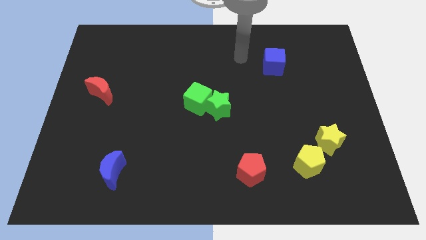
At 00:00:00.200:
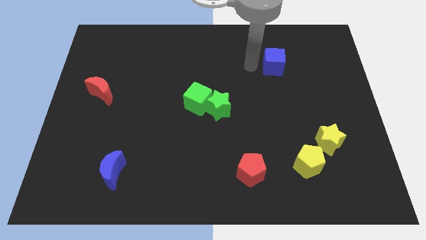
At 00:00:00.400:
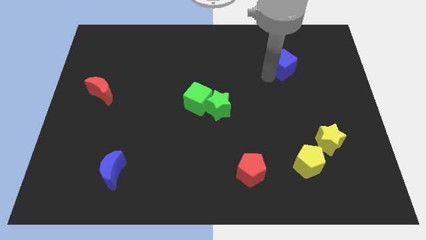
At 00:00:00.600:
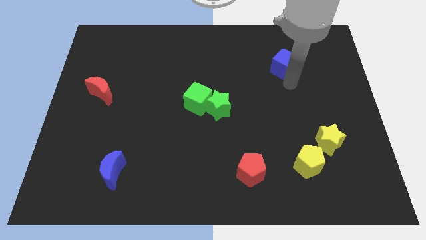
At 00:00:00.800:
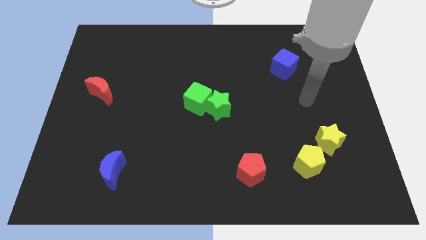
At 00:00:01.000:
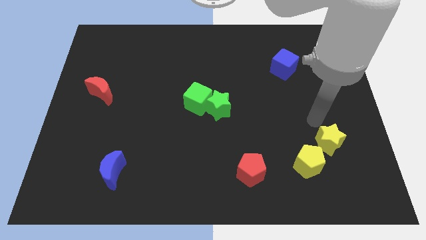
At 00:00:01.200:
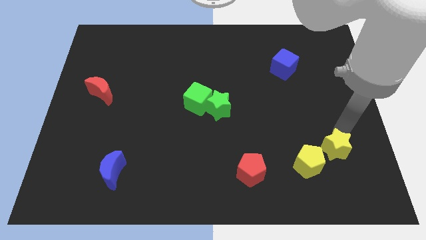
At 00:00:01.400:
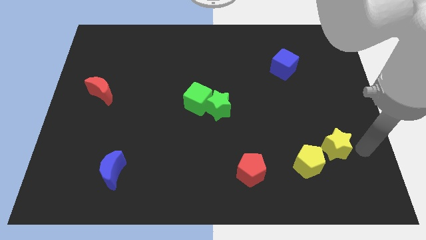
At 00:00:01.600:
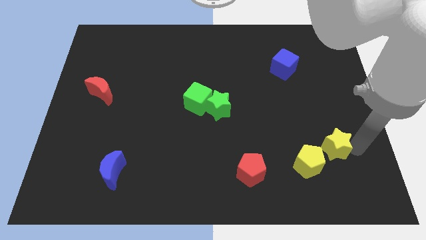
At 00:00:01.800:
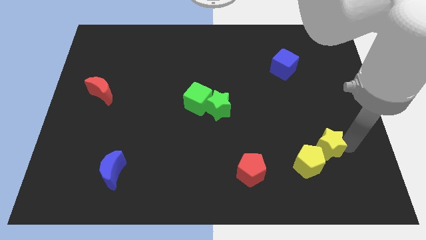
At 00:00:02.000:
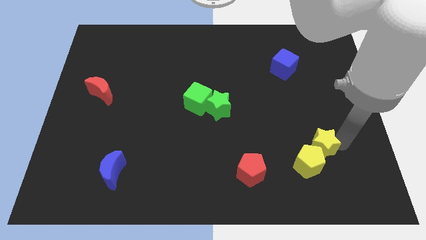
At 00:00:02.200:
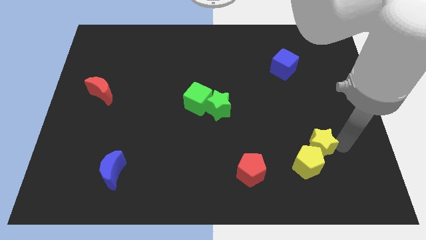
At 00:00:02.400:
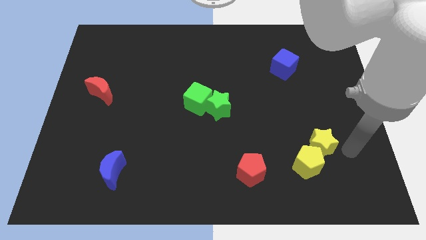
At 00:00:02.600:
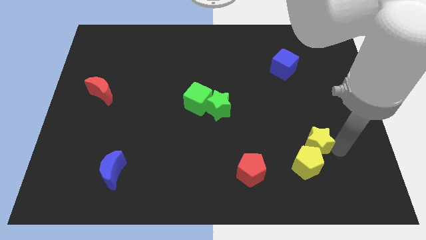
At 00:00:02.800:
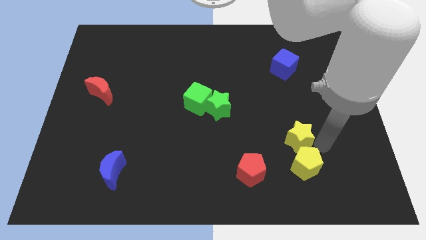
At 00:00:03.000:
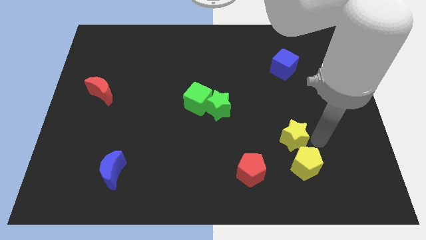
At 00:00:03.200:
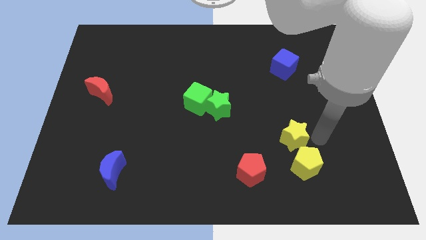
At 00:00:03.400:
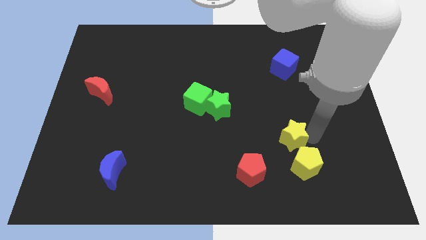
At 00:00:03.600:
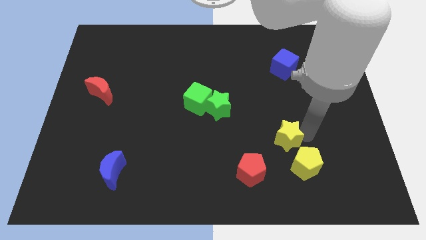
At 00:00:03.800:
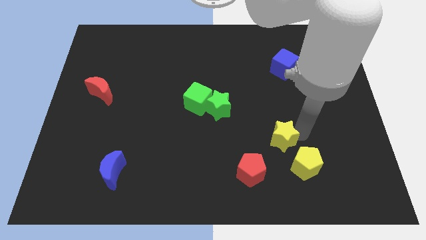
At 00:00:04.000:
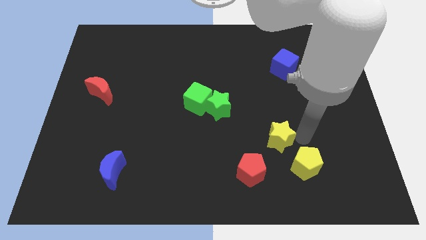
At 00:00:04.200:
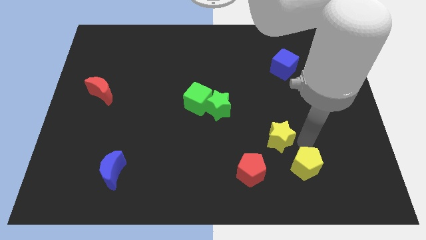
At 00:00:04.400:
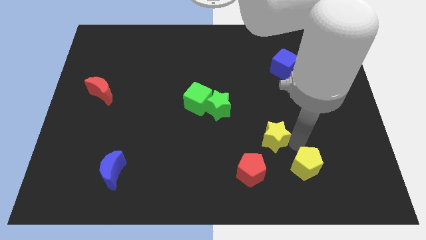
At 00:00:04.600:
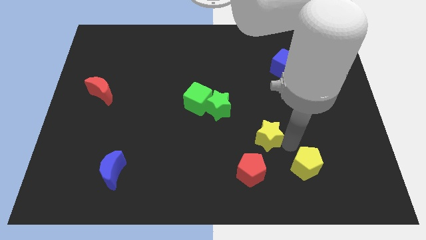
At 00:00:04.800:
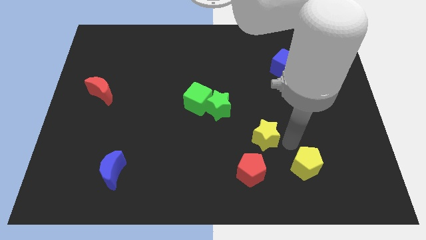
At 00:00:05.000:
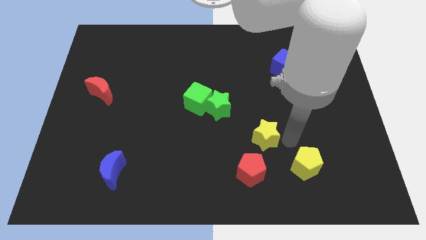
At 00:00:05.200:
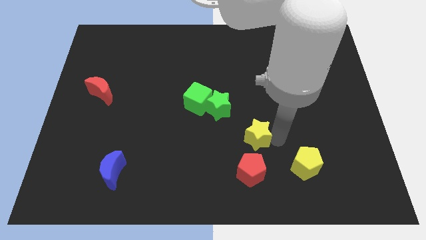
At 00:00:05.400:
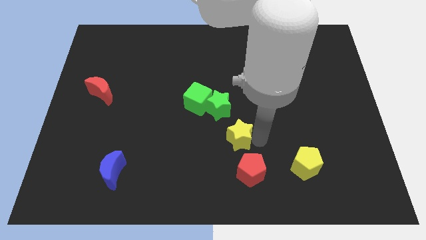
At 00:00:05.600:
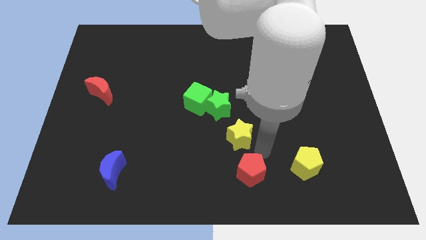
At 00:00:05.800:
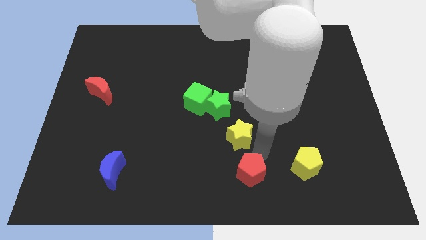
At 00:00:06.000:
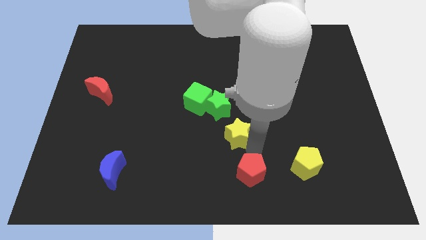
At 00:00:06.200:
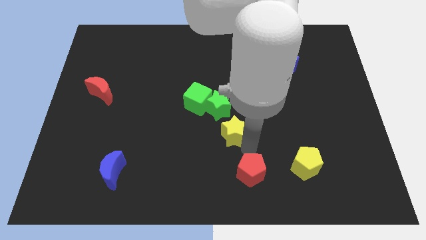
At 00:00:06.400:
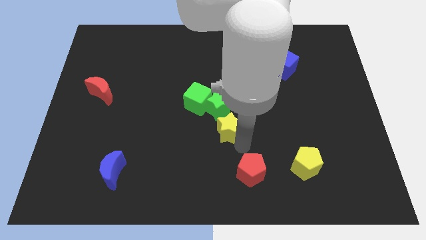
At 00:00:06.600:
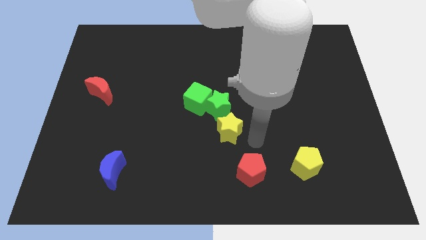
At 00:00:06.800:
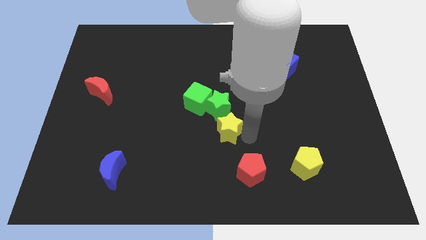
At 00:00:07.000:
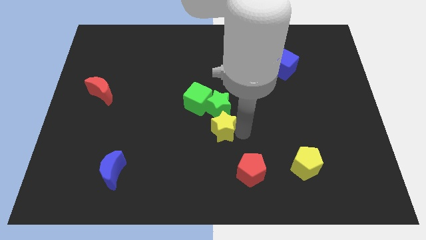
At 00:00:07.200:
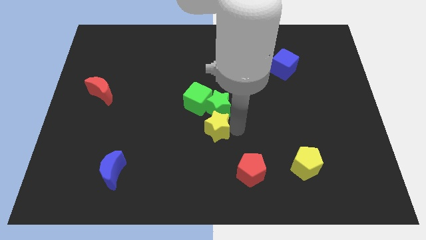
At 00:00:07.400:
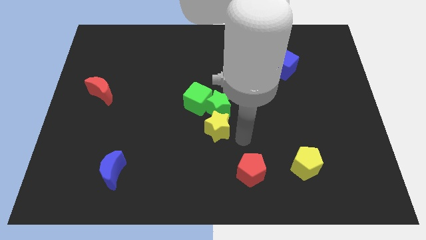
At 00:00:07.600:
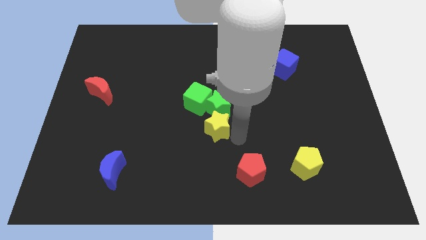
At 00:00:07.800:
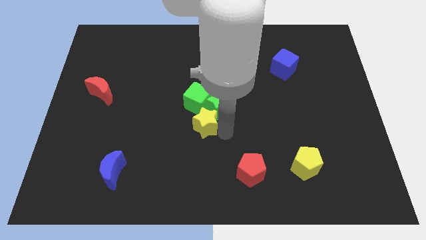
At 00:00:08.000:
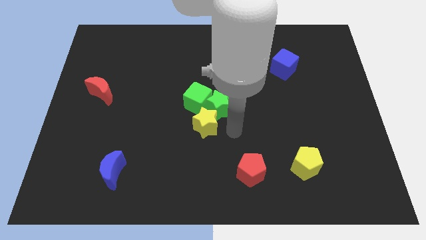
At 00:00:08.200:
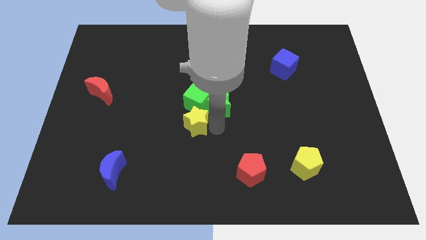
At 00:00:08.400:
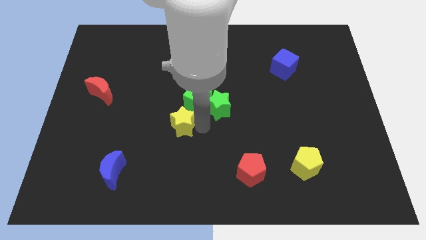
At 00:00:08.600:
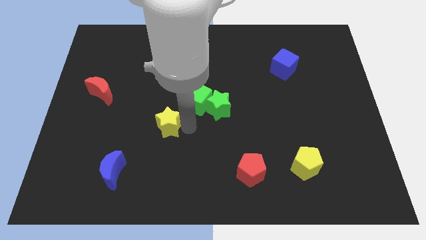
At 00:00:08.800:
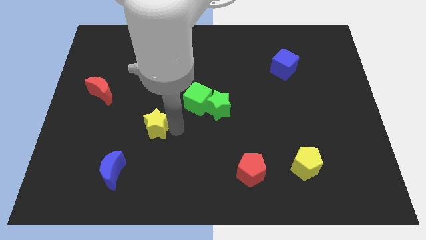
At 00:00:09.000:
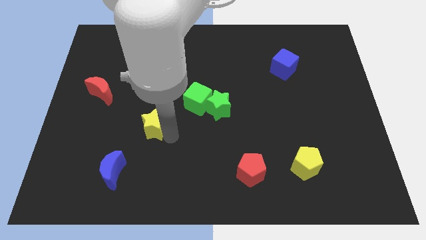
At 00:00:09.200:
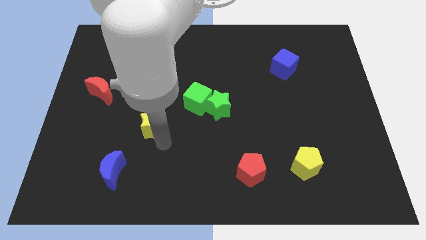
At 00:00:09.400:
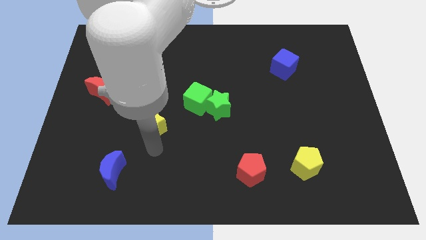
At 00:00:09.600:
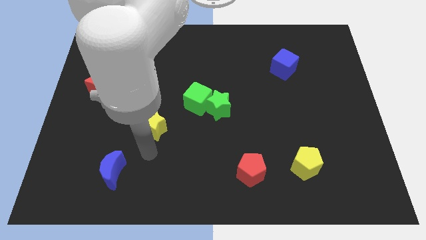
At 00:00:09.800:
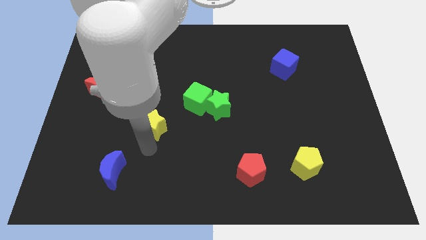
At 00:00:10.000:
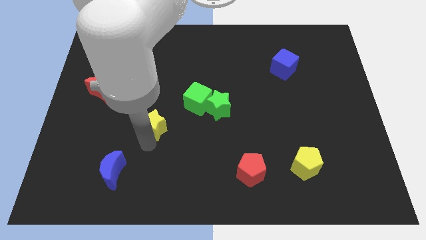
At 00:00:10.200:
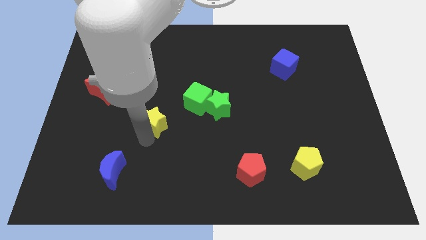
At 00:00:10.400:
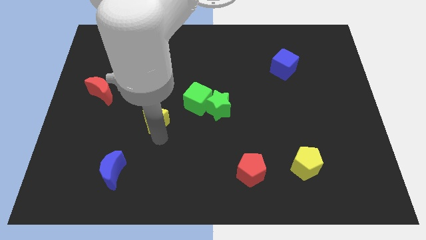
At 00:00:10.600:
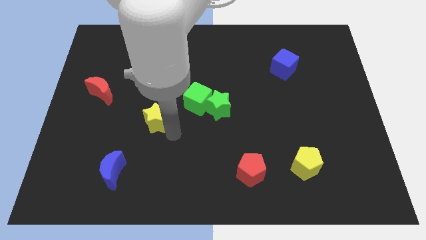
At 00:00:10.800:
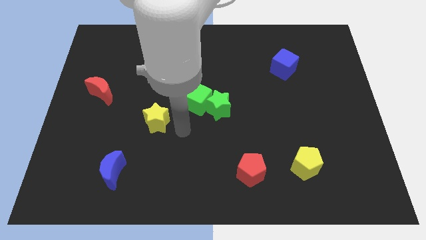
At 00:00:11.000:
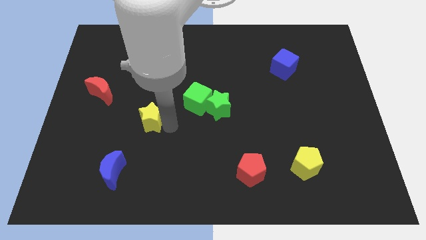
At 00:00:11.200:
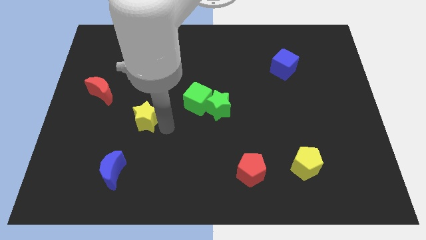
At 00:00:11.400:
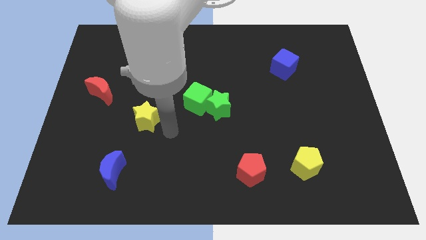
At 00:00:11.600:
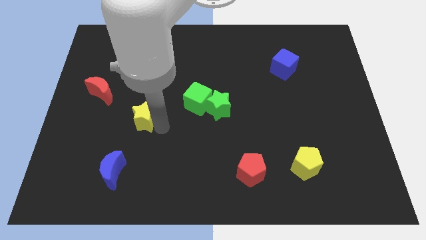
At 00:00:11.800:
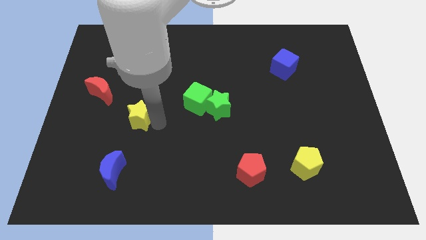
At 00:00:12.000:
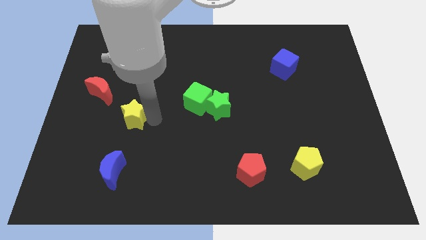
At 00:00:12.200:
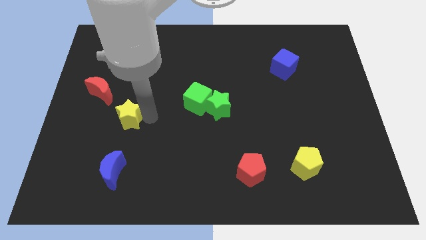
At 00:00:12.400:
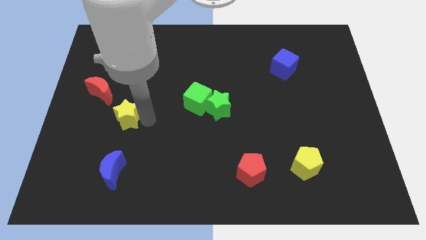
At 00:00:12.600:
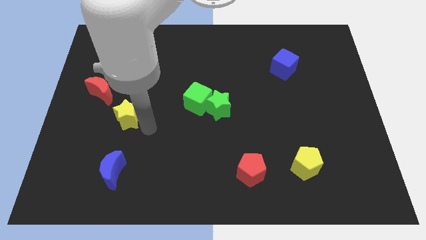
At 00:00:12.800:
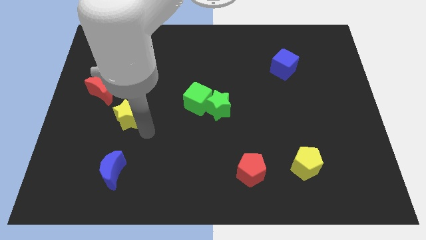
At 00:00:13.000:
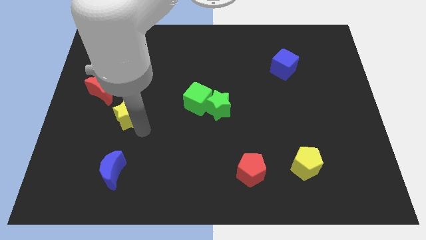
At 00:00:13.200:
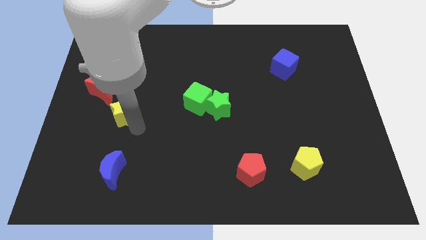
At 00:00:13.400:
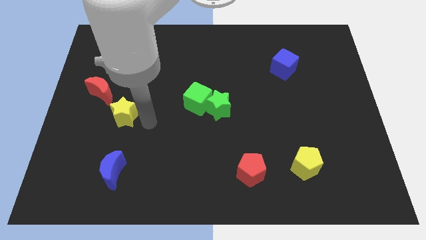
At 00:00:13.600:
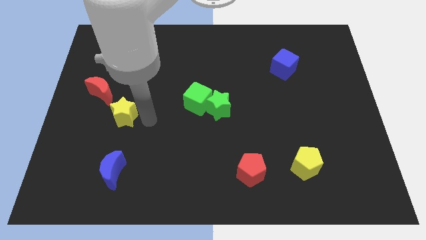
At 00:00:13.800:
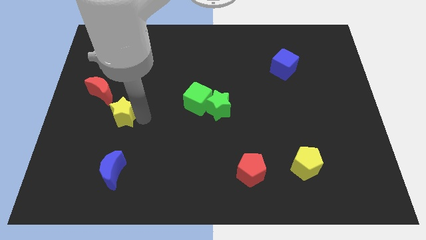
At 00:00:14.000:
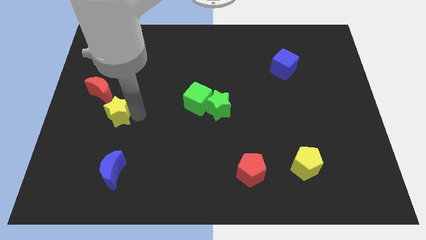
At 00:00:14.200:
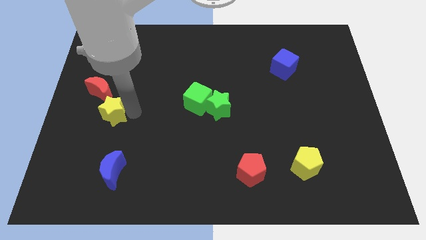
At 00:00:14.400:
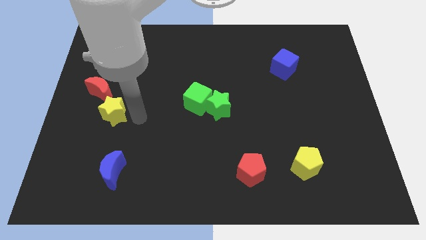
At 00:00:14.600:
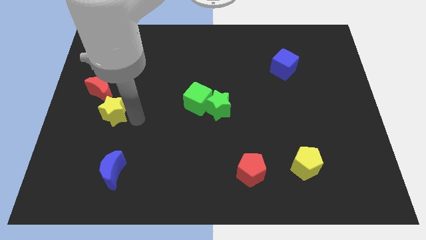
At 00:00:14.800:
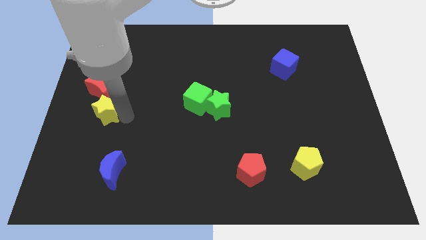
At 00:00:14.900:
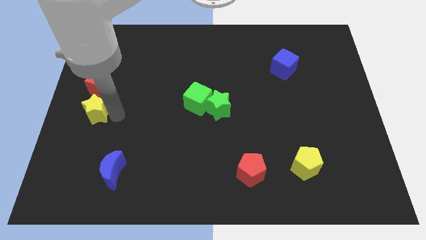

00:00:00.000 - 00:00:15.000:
move the yellow star to the left side of the board
